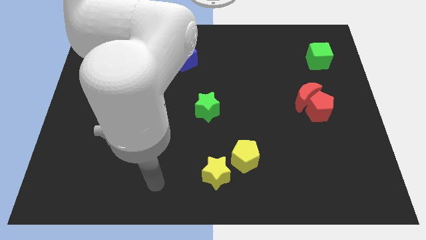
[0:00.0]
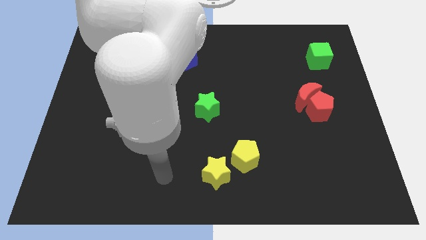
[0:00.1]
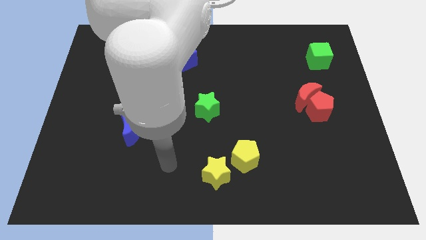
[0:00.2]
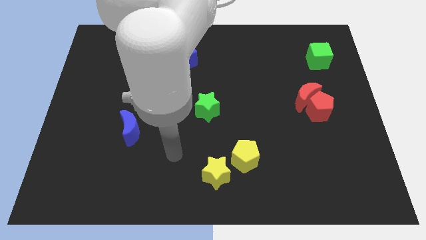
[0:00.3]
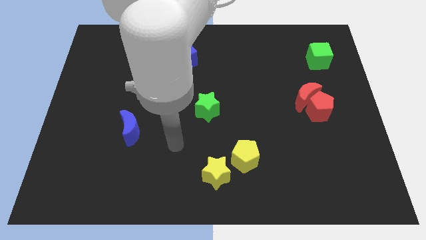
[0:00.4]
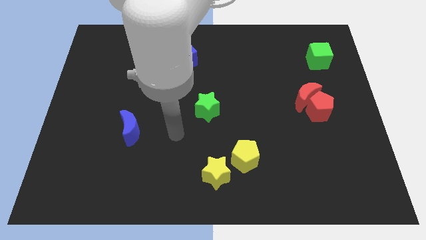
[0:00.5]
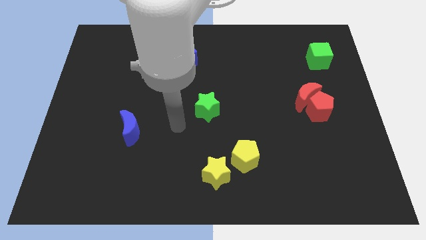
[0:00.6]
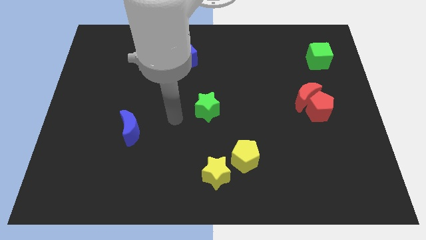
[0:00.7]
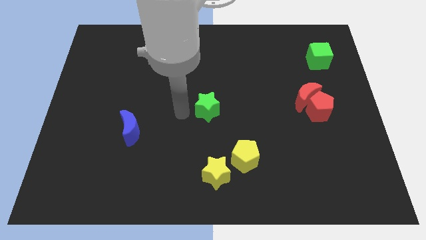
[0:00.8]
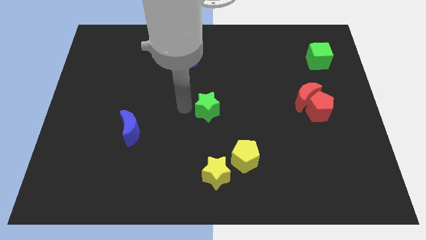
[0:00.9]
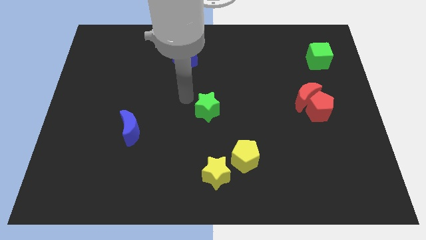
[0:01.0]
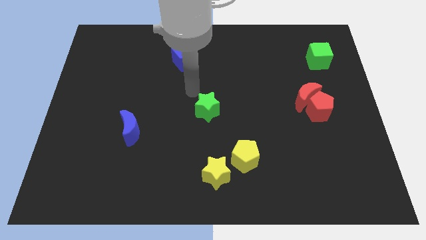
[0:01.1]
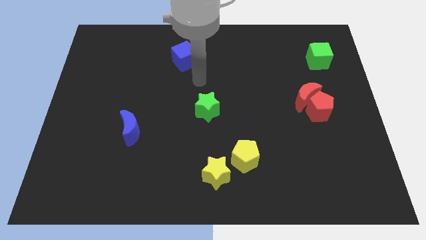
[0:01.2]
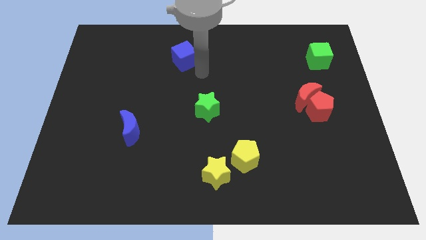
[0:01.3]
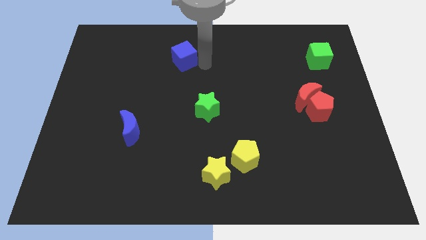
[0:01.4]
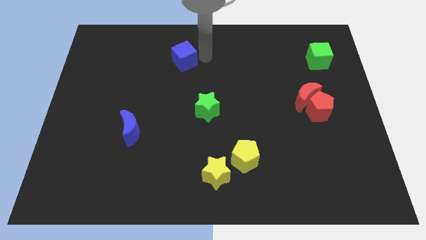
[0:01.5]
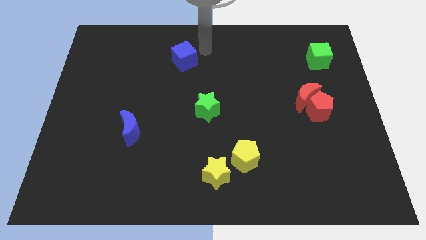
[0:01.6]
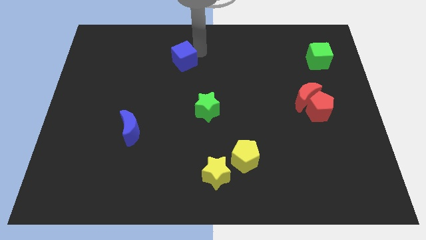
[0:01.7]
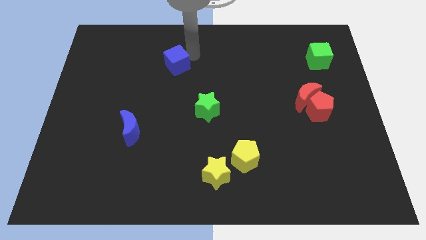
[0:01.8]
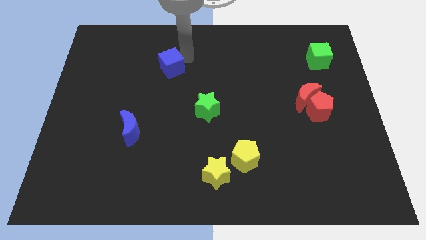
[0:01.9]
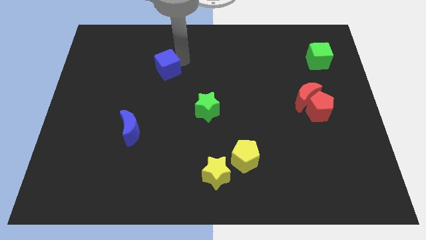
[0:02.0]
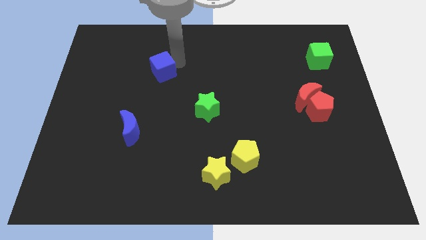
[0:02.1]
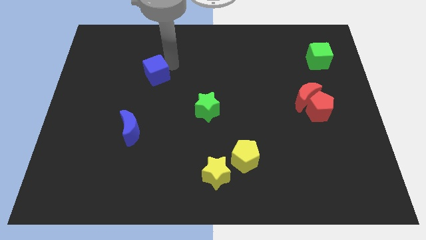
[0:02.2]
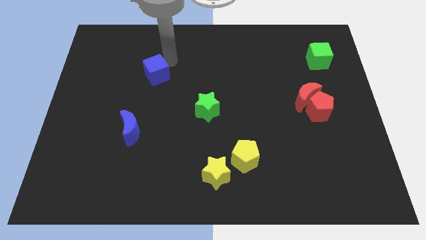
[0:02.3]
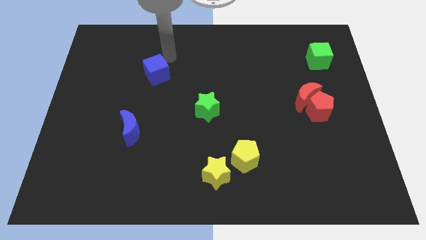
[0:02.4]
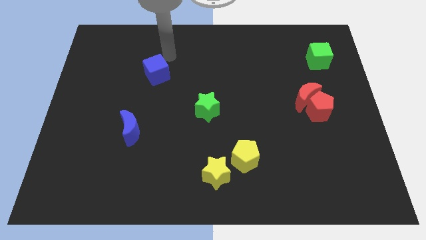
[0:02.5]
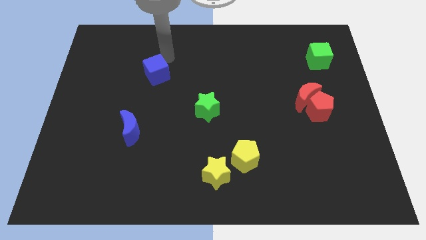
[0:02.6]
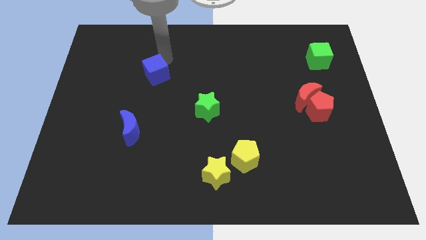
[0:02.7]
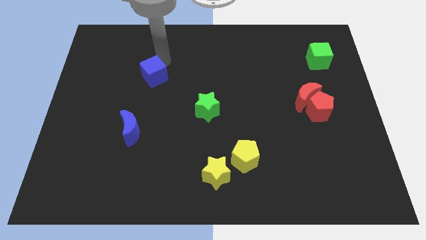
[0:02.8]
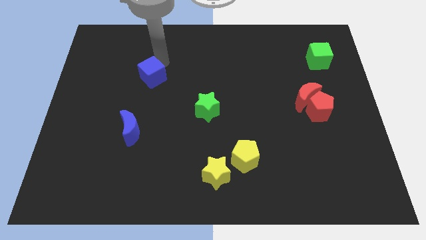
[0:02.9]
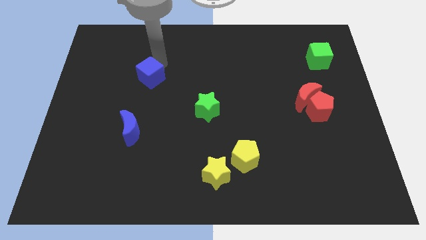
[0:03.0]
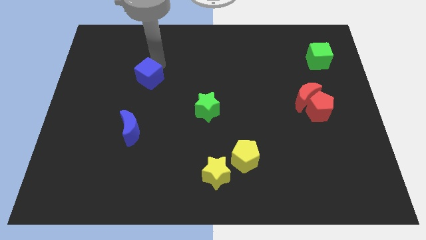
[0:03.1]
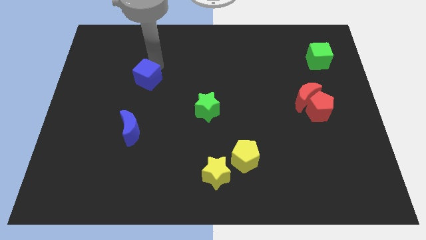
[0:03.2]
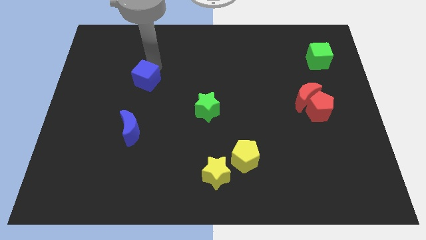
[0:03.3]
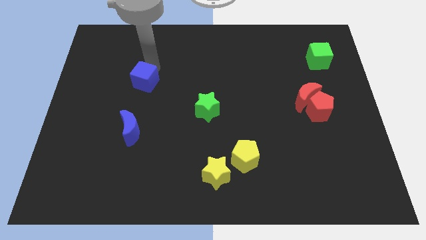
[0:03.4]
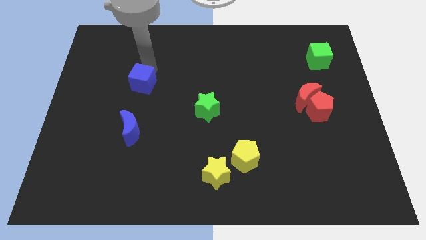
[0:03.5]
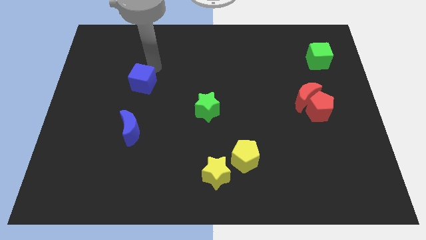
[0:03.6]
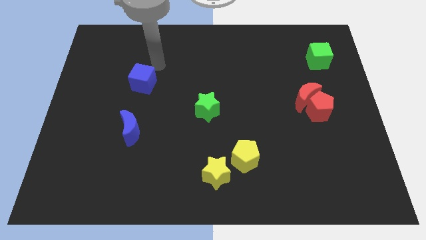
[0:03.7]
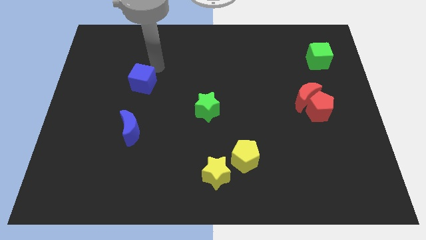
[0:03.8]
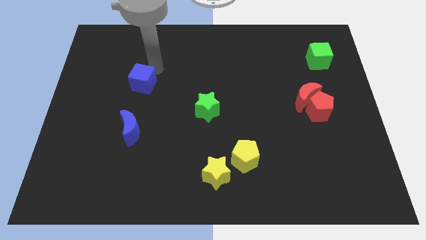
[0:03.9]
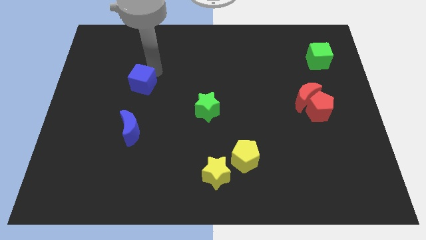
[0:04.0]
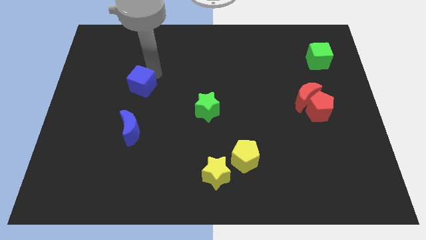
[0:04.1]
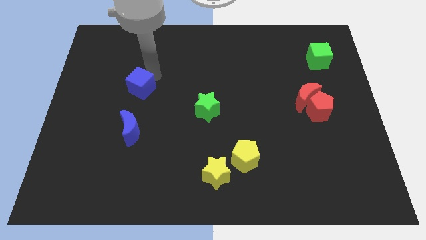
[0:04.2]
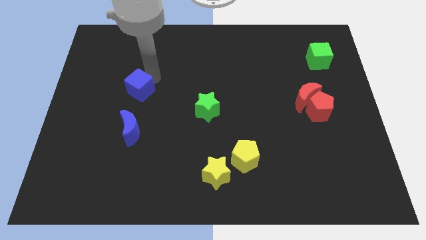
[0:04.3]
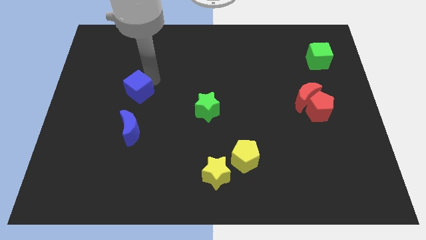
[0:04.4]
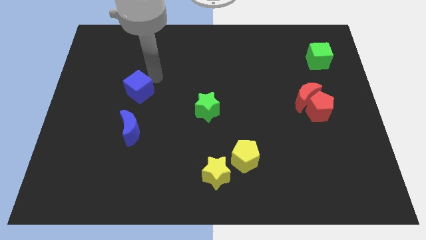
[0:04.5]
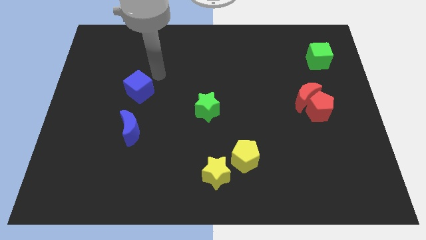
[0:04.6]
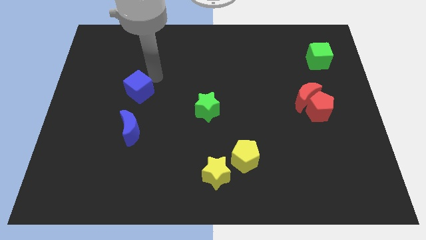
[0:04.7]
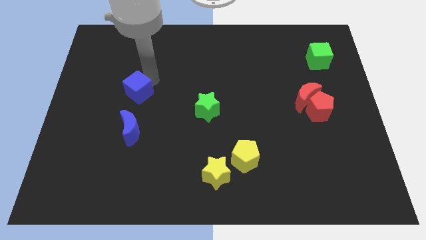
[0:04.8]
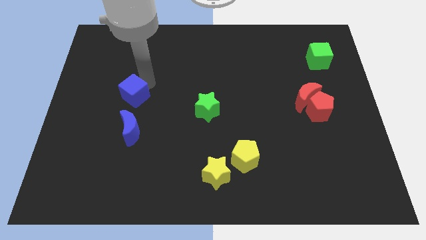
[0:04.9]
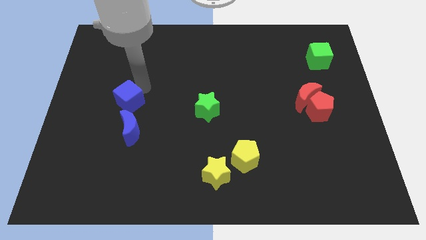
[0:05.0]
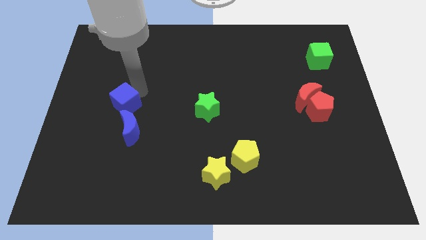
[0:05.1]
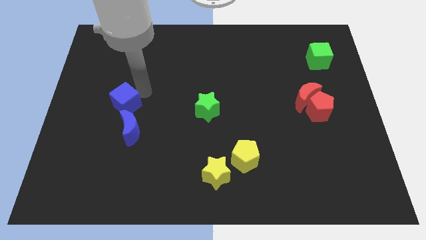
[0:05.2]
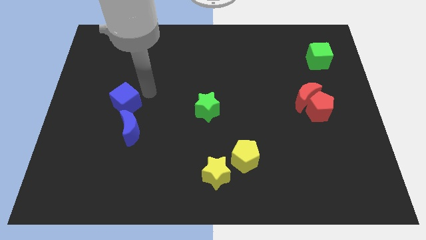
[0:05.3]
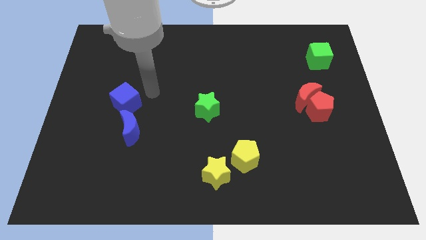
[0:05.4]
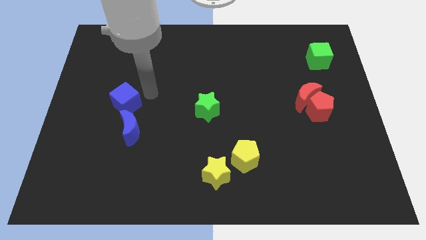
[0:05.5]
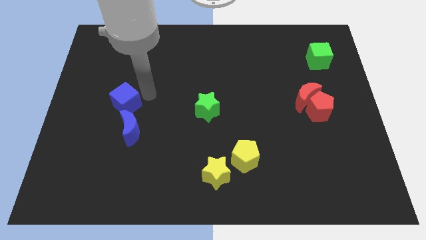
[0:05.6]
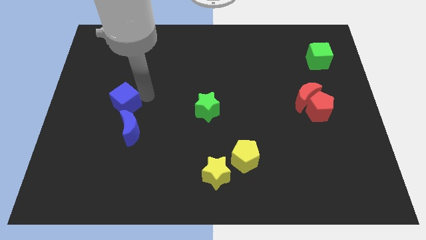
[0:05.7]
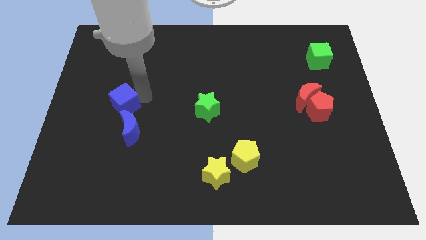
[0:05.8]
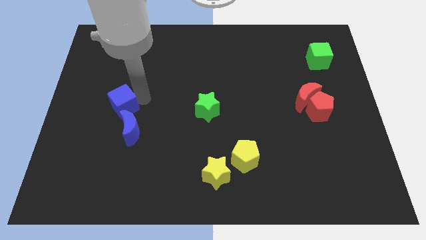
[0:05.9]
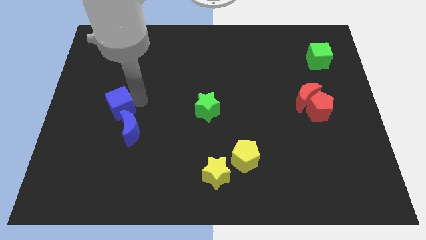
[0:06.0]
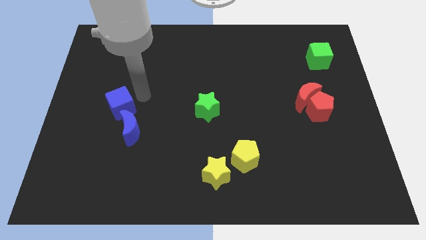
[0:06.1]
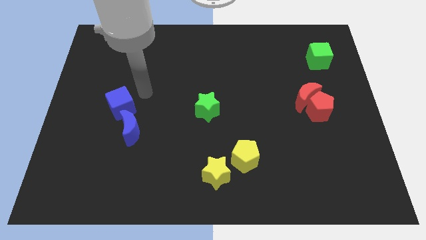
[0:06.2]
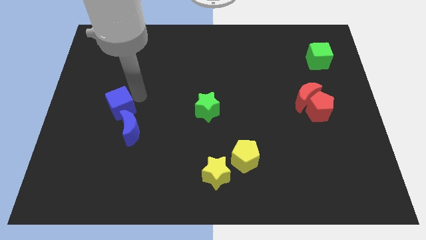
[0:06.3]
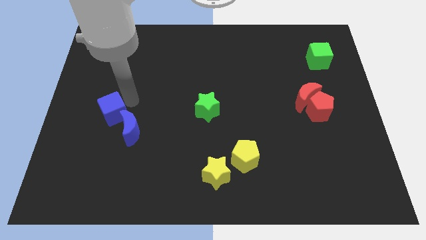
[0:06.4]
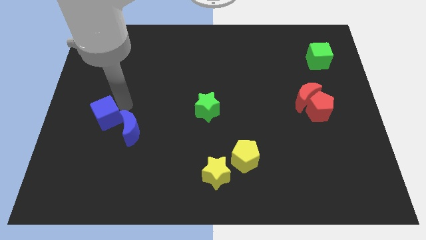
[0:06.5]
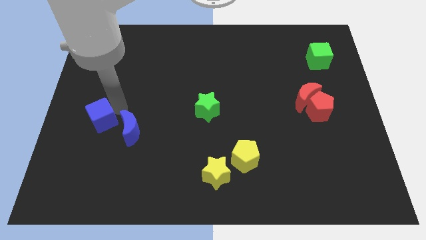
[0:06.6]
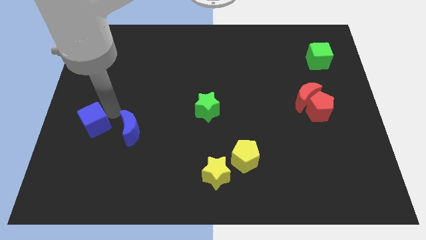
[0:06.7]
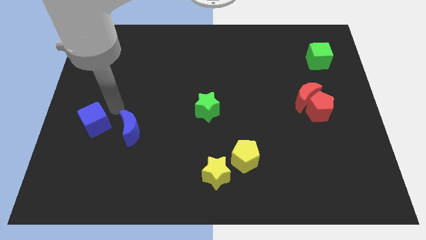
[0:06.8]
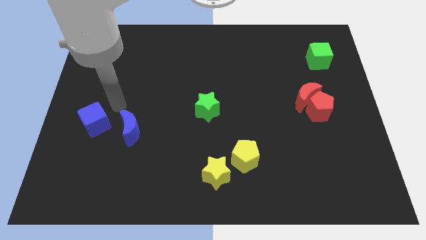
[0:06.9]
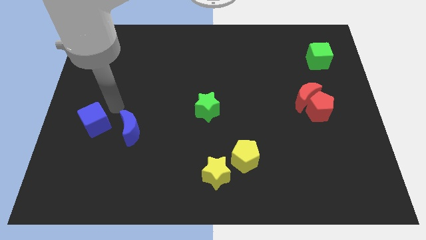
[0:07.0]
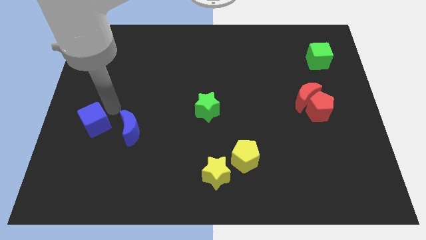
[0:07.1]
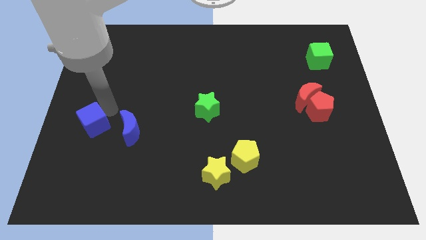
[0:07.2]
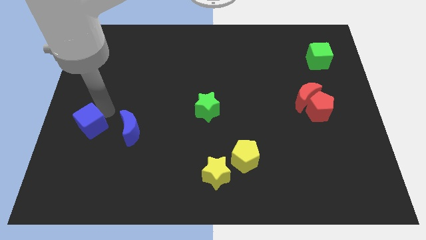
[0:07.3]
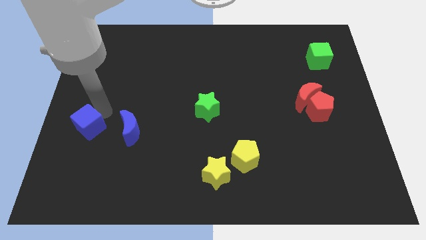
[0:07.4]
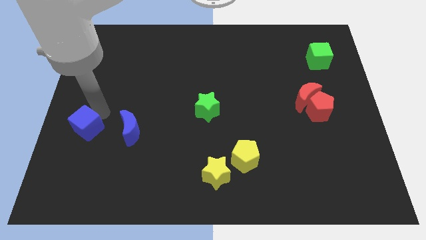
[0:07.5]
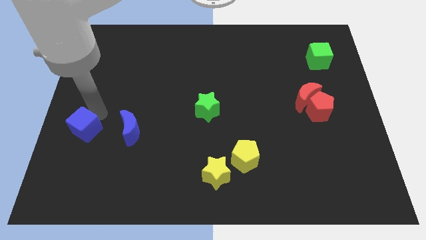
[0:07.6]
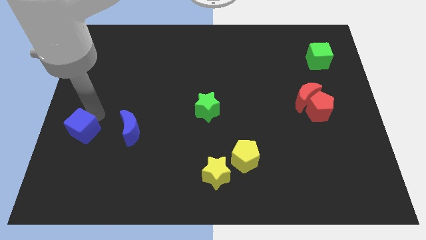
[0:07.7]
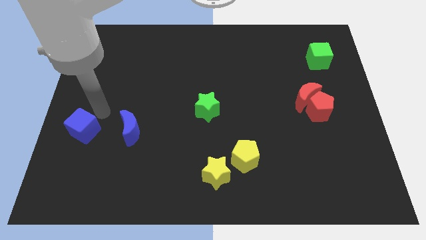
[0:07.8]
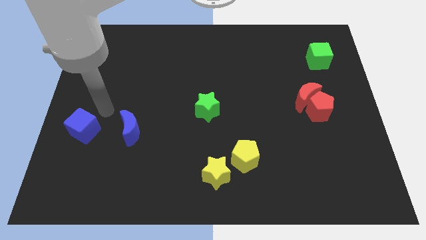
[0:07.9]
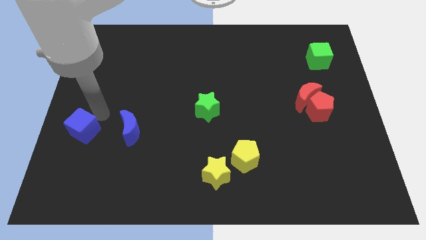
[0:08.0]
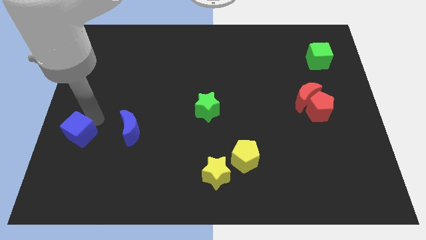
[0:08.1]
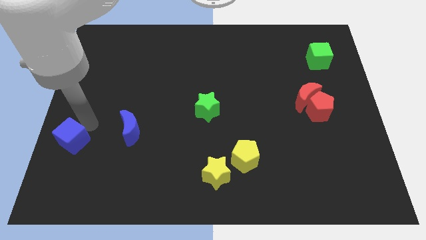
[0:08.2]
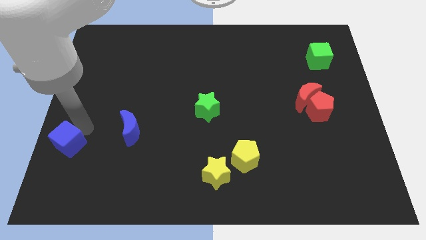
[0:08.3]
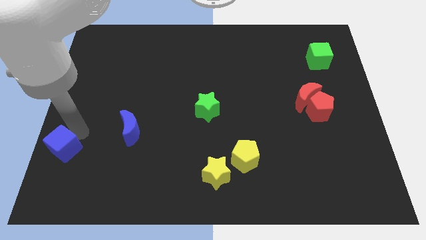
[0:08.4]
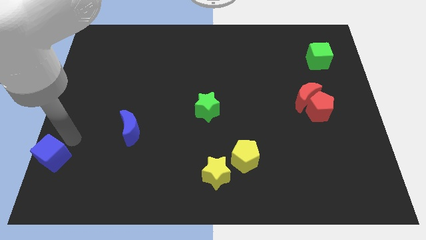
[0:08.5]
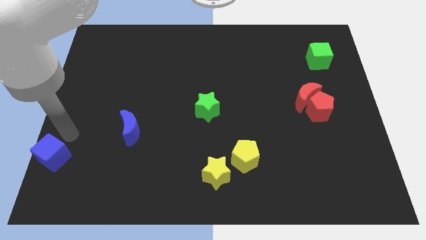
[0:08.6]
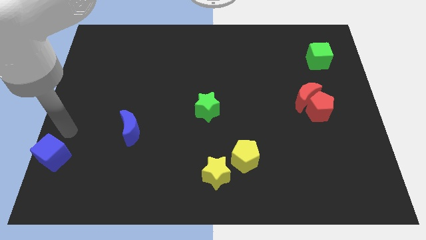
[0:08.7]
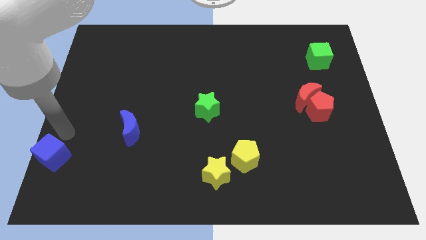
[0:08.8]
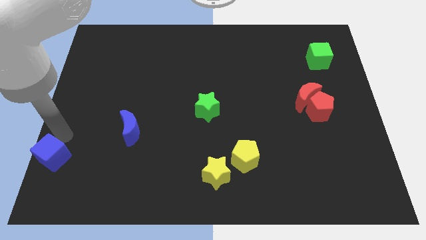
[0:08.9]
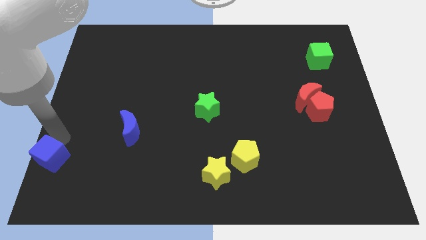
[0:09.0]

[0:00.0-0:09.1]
put the blue cube to the bottom left corner
